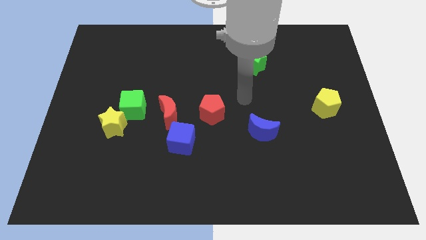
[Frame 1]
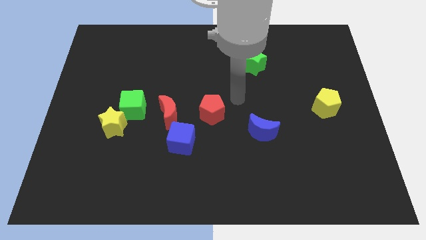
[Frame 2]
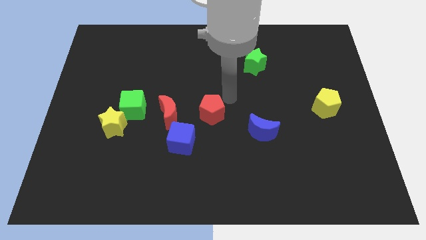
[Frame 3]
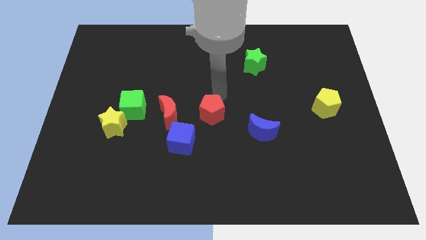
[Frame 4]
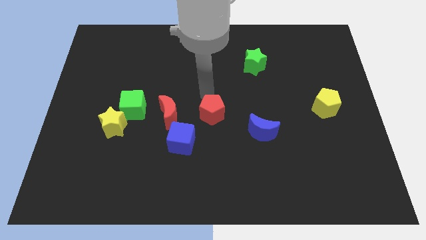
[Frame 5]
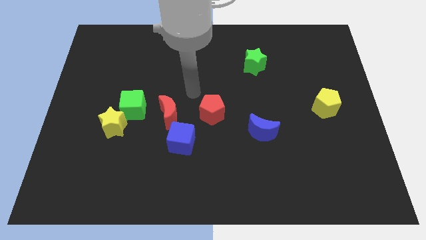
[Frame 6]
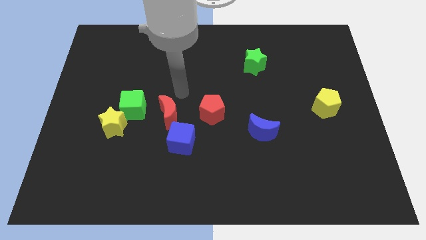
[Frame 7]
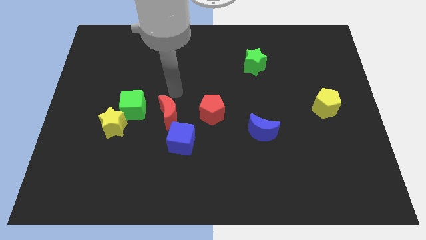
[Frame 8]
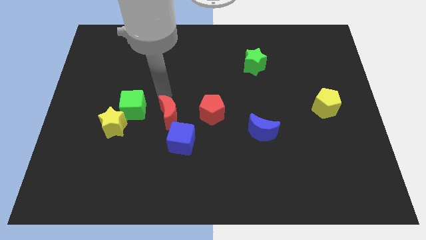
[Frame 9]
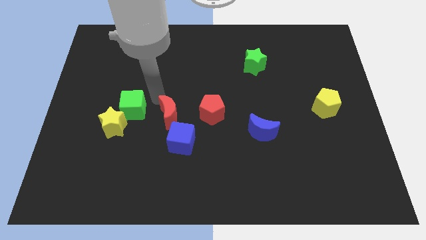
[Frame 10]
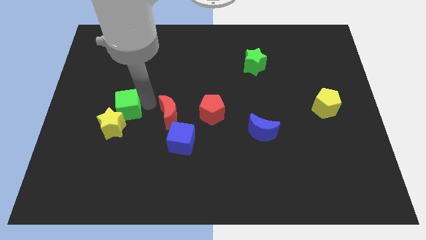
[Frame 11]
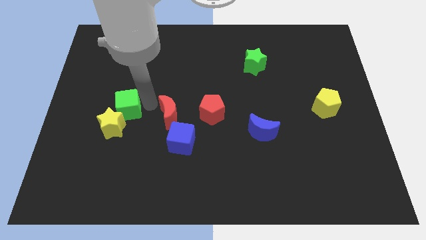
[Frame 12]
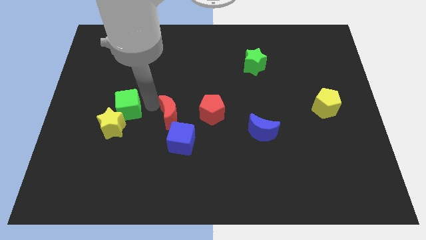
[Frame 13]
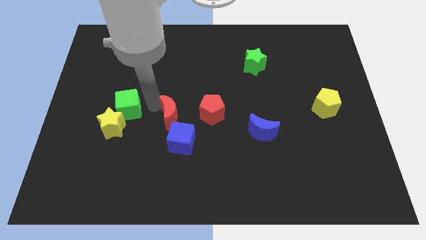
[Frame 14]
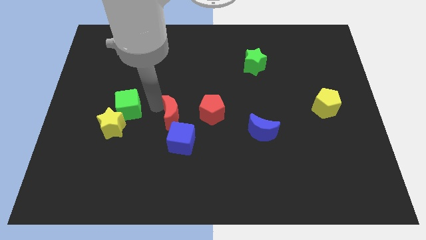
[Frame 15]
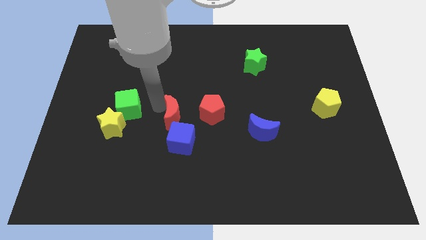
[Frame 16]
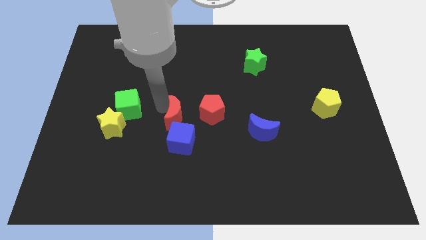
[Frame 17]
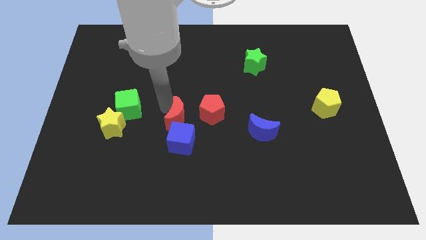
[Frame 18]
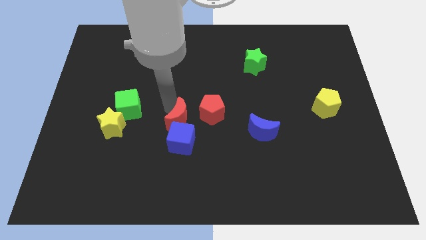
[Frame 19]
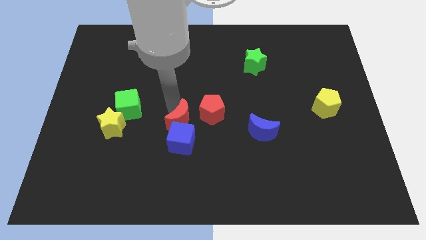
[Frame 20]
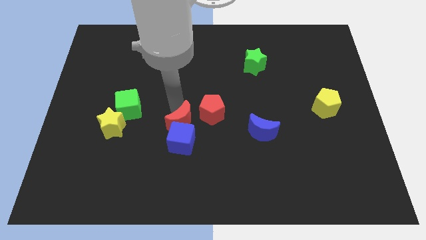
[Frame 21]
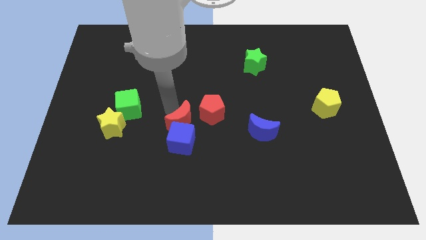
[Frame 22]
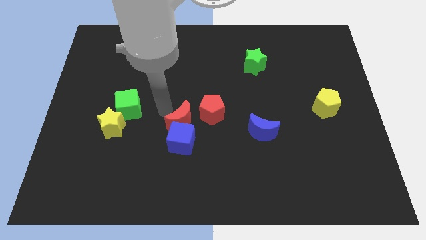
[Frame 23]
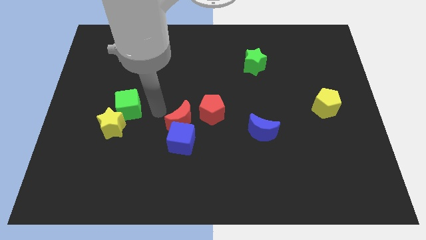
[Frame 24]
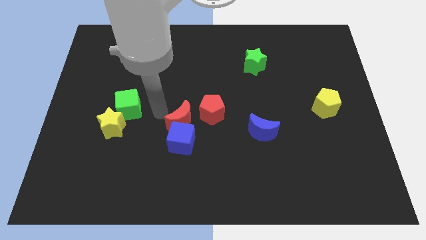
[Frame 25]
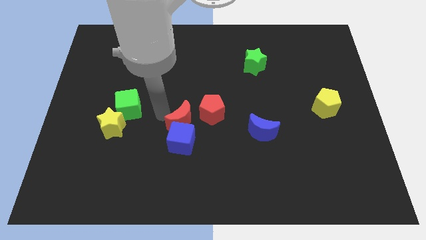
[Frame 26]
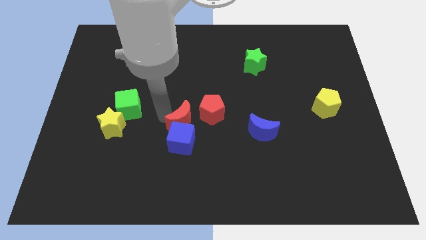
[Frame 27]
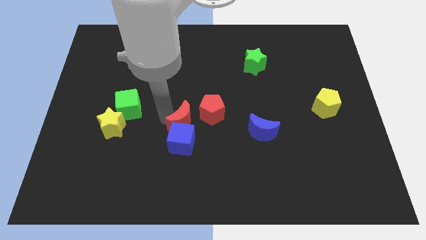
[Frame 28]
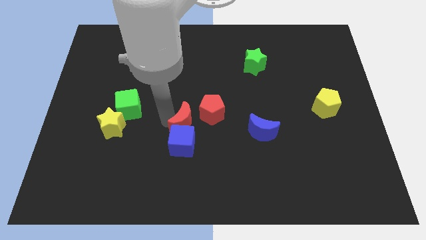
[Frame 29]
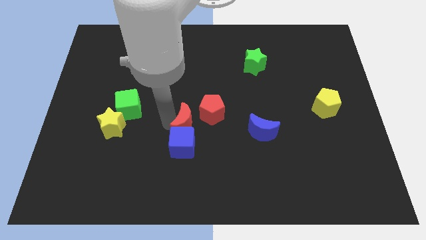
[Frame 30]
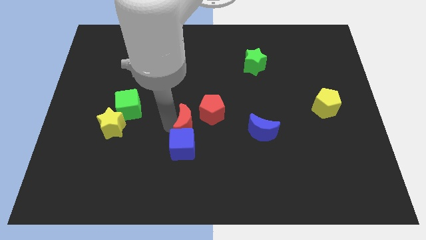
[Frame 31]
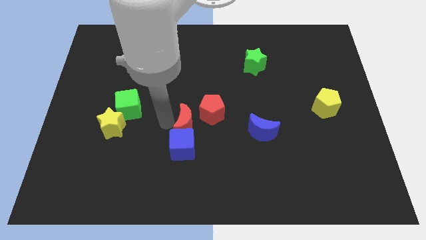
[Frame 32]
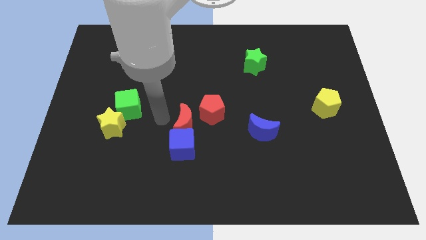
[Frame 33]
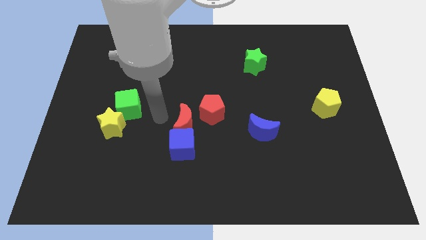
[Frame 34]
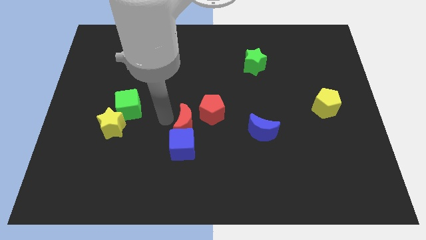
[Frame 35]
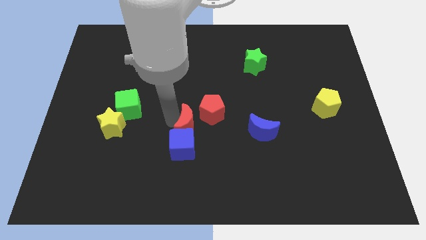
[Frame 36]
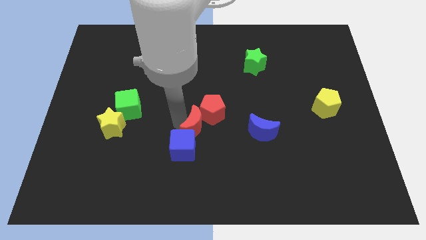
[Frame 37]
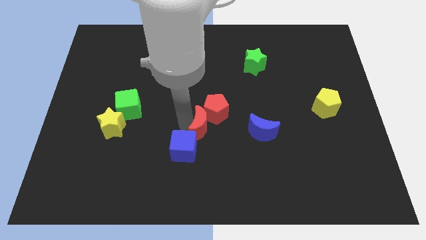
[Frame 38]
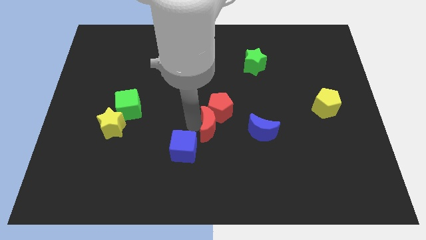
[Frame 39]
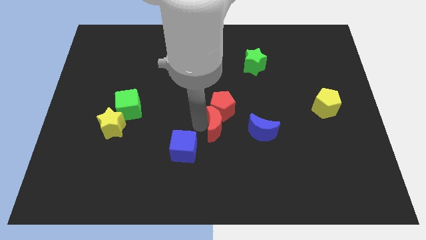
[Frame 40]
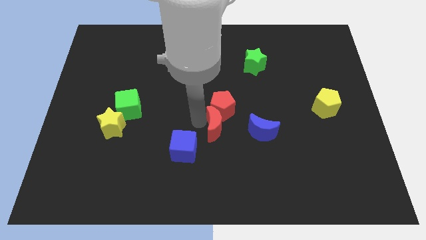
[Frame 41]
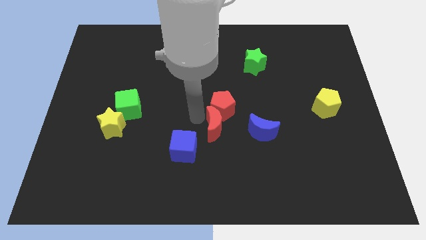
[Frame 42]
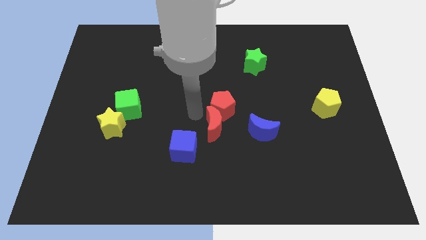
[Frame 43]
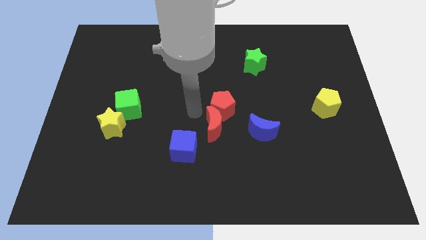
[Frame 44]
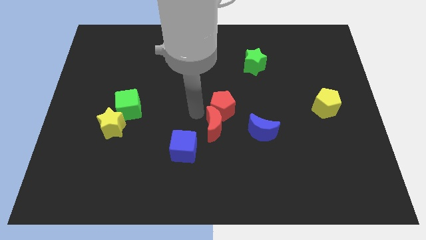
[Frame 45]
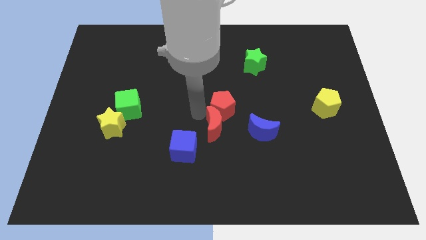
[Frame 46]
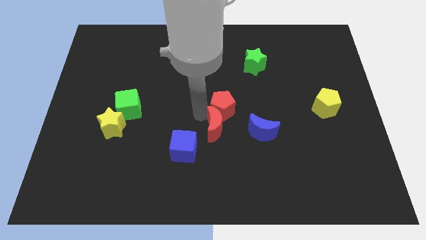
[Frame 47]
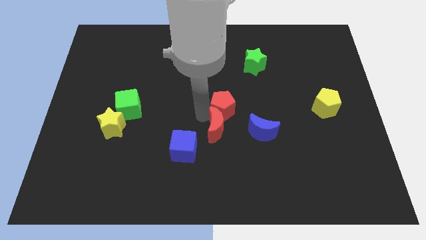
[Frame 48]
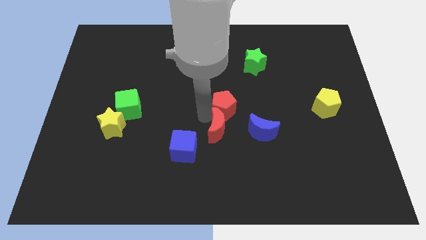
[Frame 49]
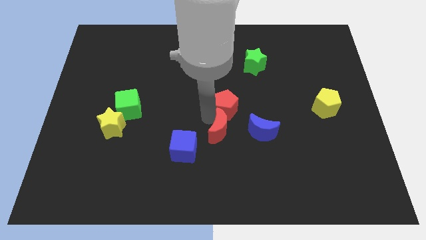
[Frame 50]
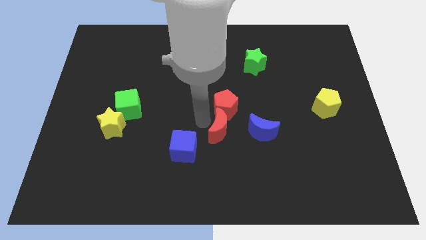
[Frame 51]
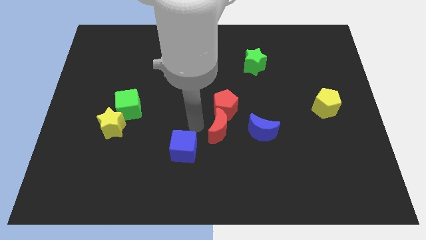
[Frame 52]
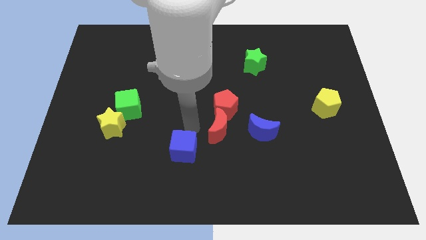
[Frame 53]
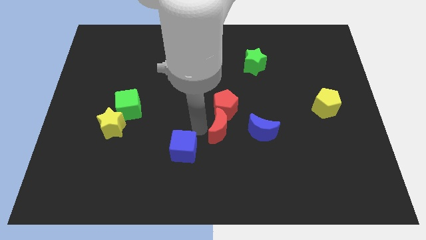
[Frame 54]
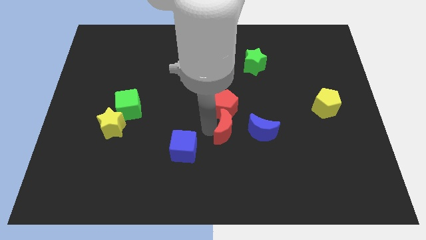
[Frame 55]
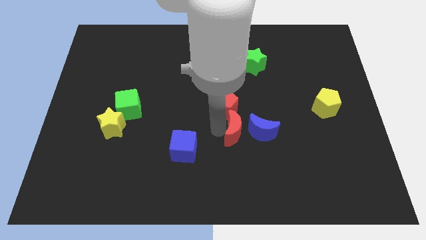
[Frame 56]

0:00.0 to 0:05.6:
put the red moon to the blue moon

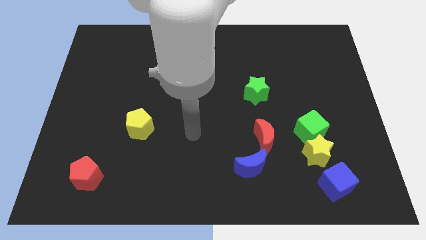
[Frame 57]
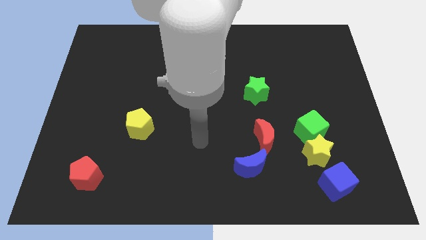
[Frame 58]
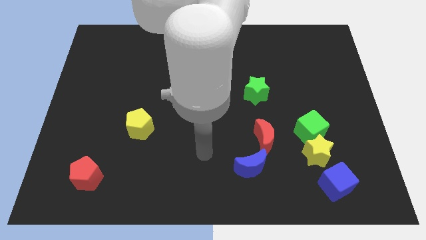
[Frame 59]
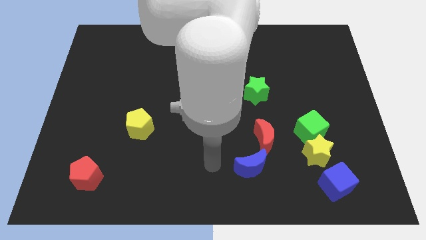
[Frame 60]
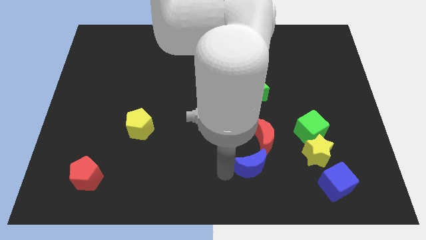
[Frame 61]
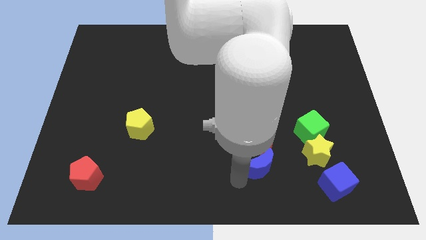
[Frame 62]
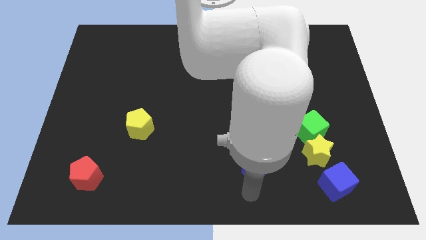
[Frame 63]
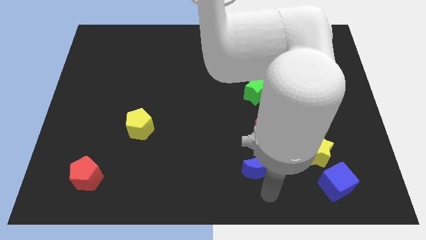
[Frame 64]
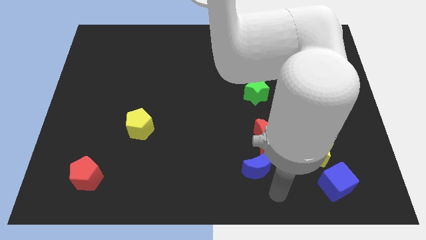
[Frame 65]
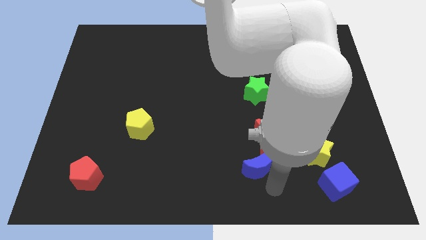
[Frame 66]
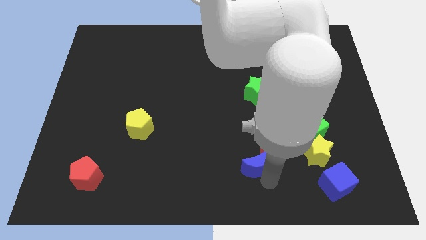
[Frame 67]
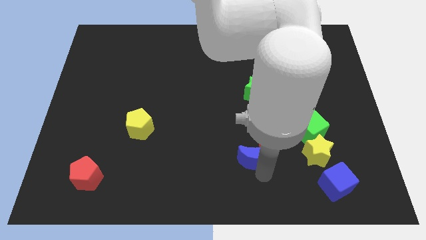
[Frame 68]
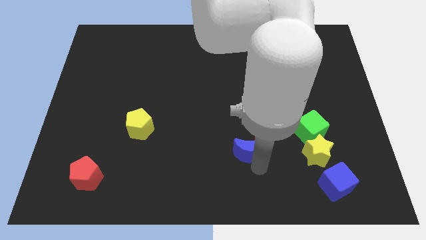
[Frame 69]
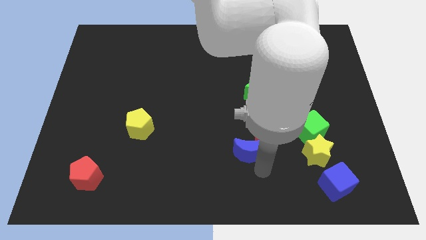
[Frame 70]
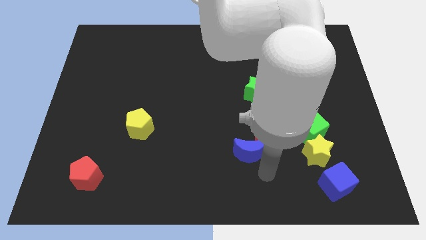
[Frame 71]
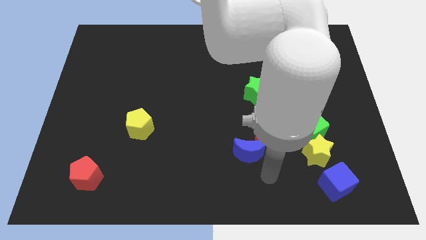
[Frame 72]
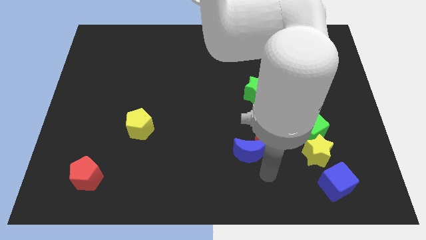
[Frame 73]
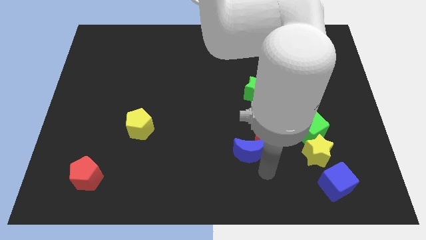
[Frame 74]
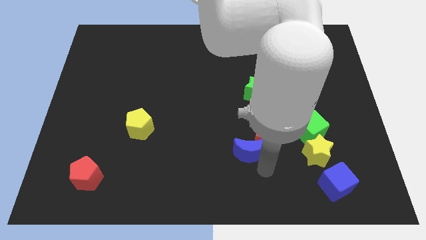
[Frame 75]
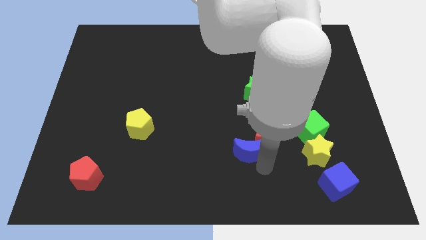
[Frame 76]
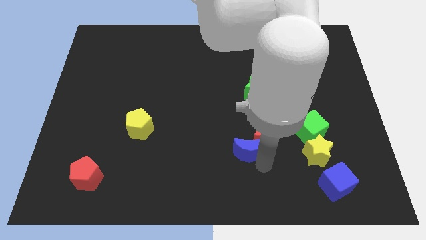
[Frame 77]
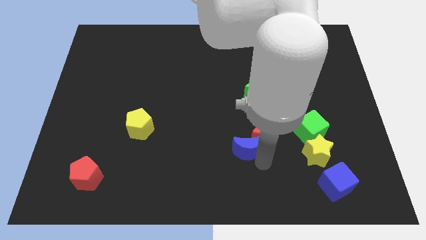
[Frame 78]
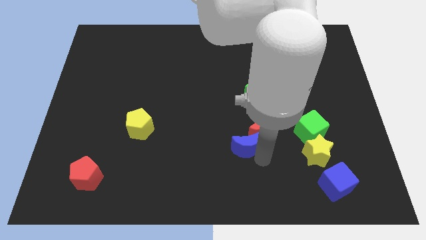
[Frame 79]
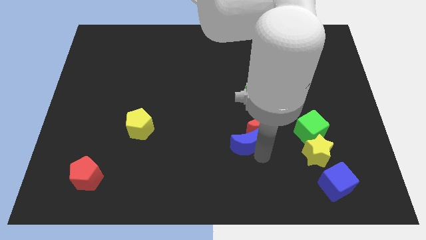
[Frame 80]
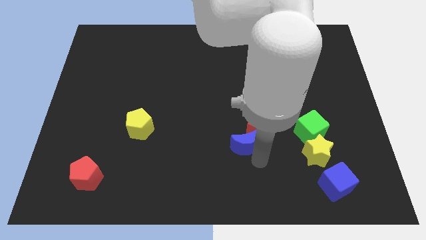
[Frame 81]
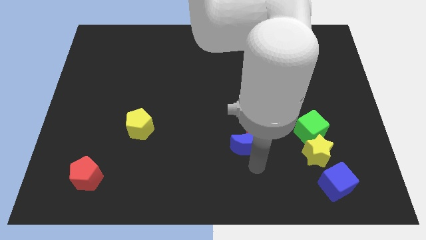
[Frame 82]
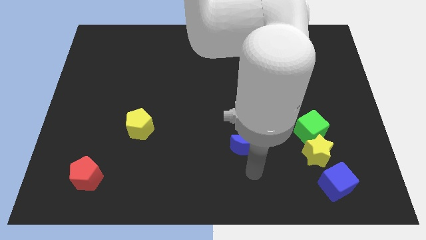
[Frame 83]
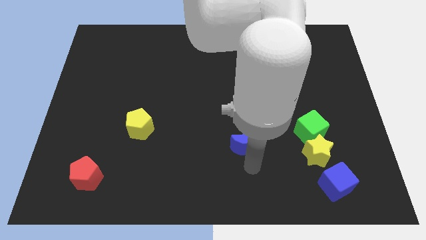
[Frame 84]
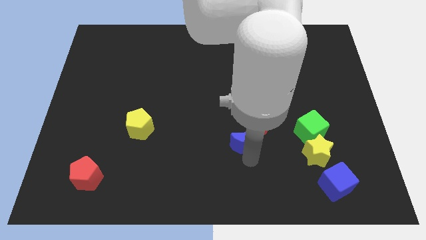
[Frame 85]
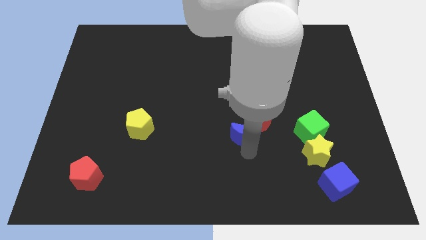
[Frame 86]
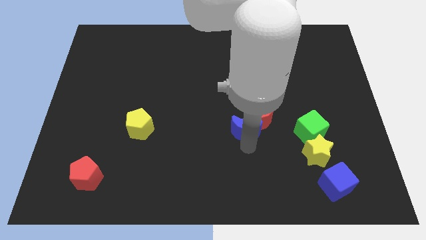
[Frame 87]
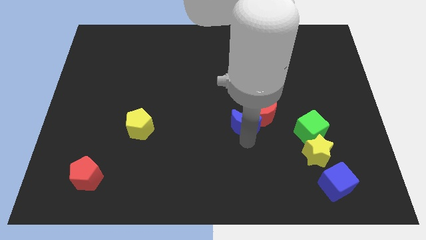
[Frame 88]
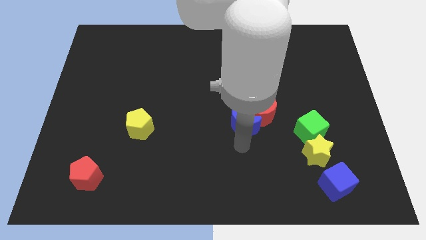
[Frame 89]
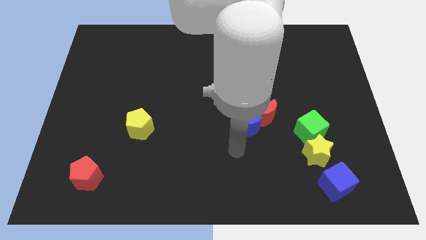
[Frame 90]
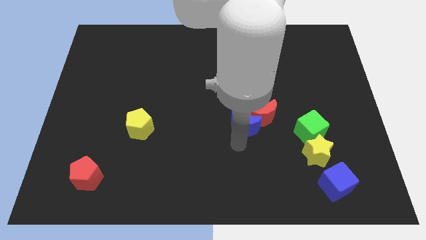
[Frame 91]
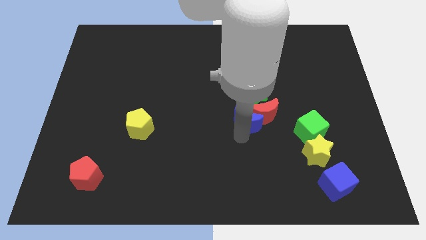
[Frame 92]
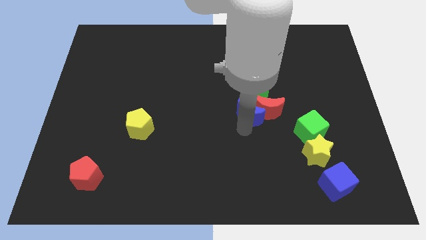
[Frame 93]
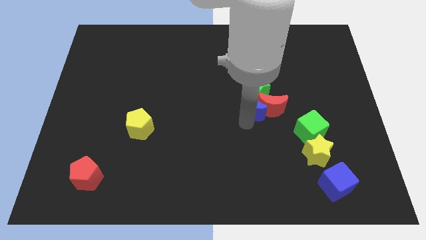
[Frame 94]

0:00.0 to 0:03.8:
move the blue moon to the green star
